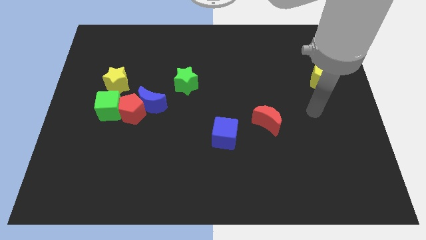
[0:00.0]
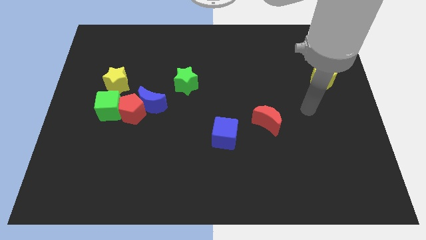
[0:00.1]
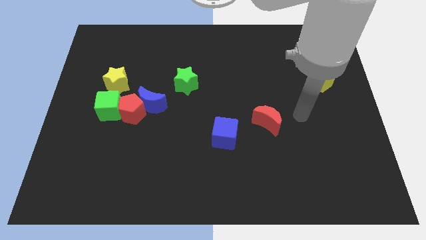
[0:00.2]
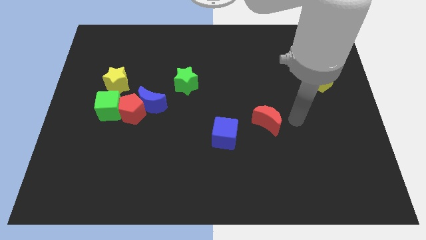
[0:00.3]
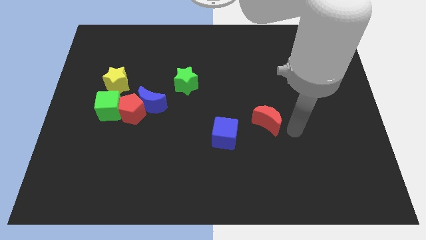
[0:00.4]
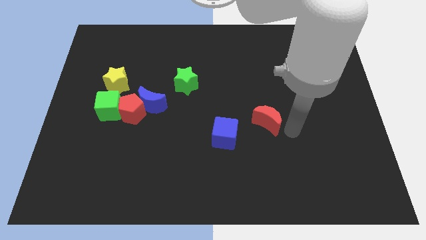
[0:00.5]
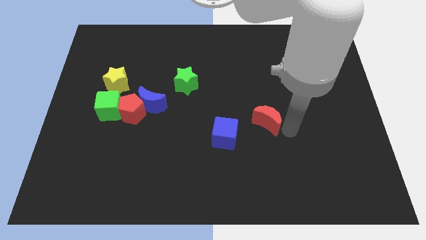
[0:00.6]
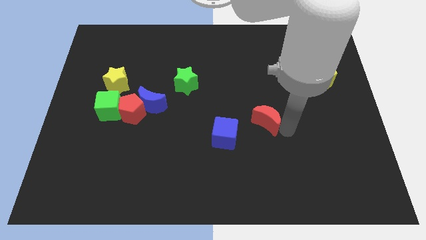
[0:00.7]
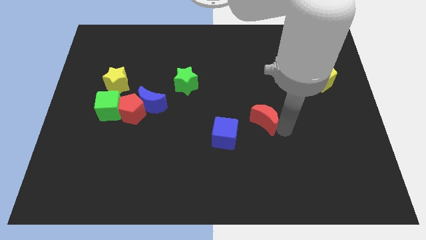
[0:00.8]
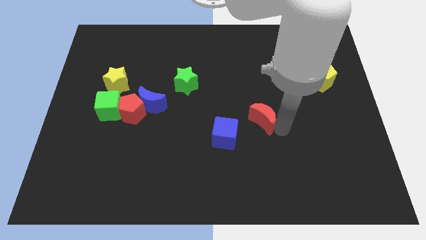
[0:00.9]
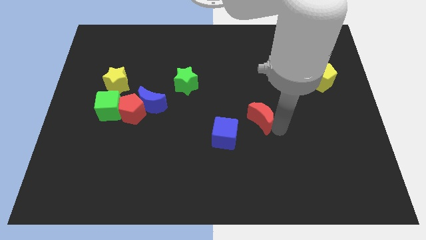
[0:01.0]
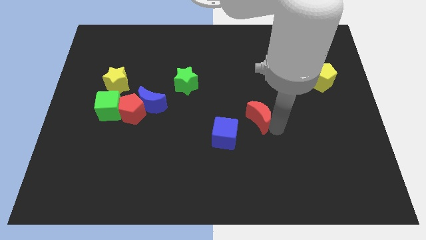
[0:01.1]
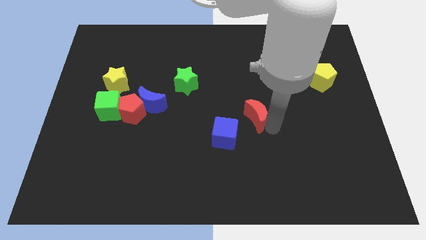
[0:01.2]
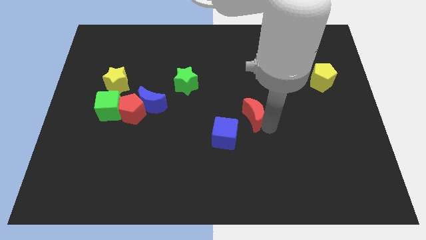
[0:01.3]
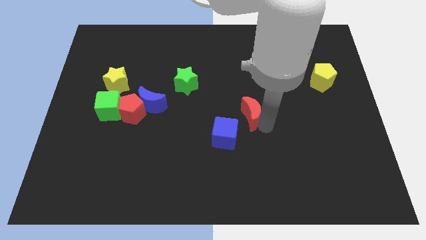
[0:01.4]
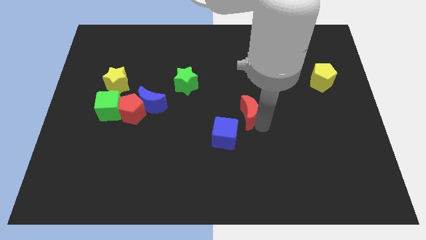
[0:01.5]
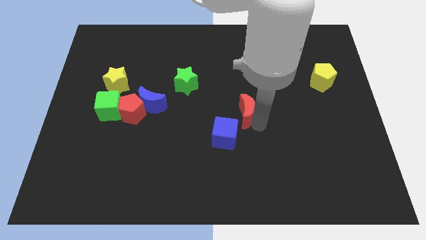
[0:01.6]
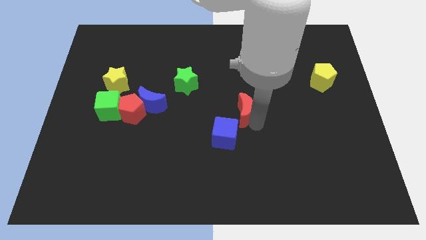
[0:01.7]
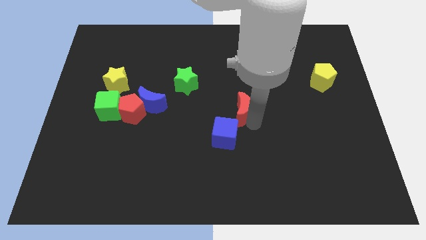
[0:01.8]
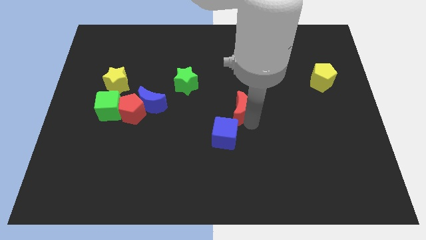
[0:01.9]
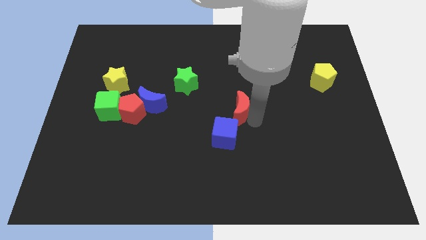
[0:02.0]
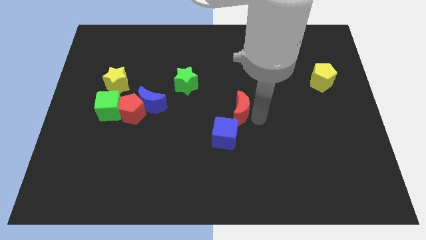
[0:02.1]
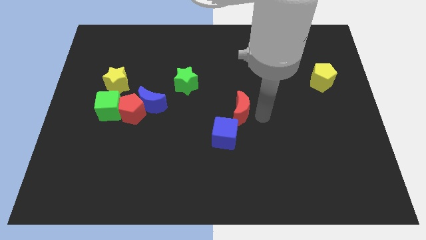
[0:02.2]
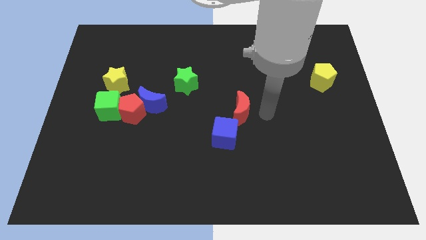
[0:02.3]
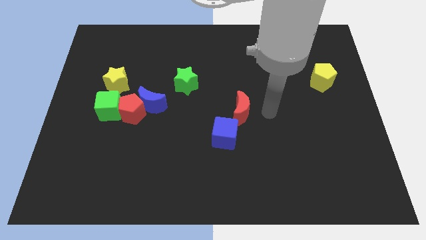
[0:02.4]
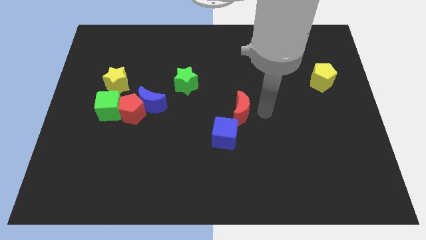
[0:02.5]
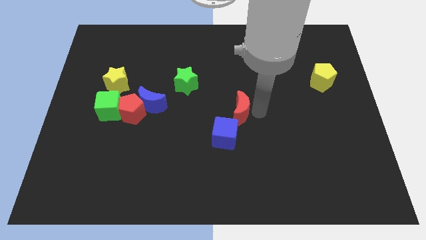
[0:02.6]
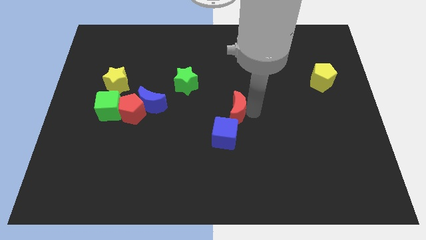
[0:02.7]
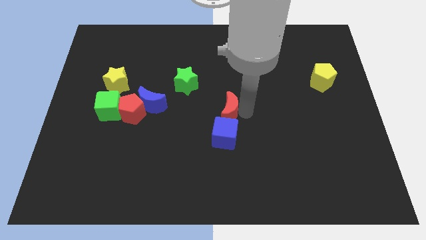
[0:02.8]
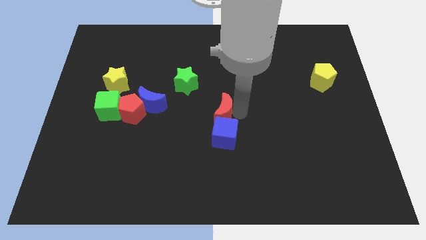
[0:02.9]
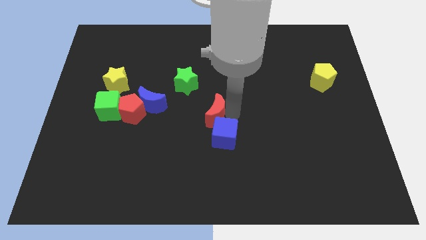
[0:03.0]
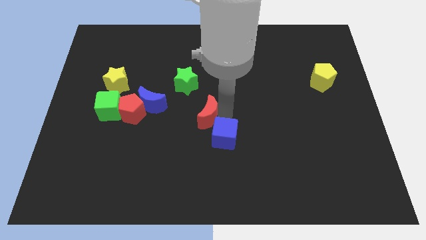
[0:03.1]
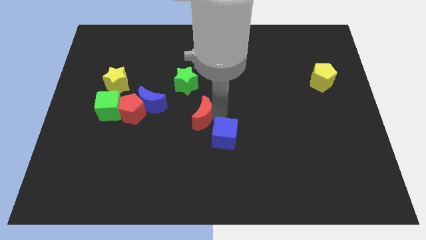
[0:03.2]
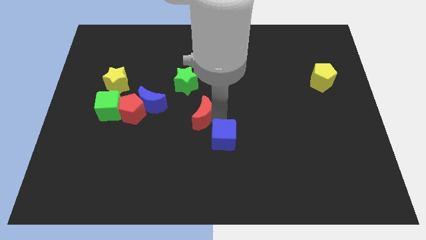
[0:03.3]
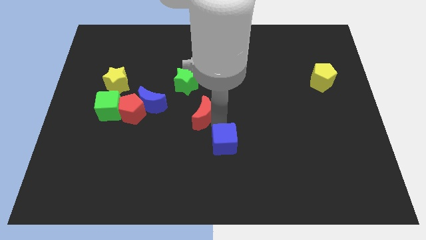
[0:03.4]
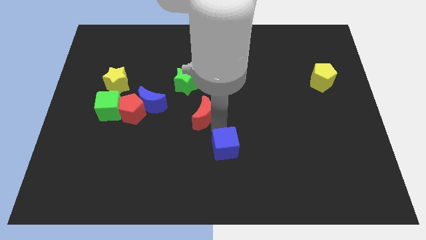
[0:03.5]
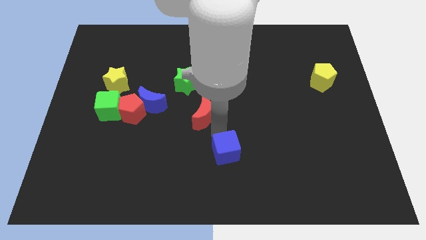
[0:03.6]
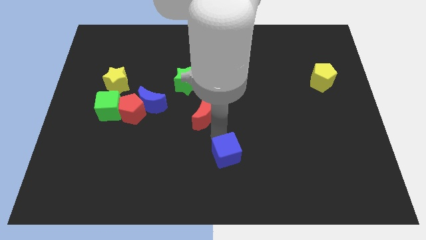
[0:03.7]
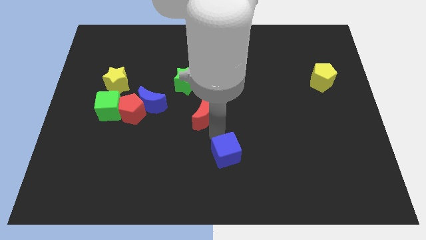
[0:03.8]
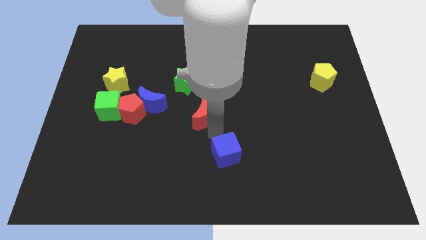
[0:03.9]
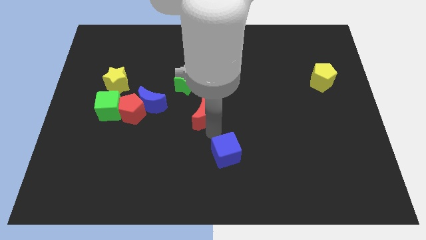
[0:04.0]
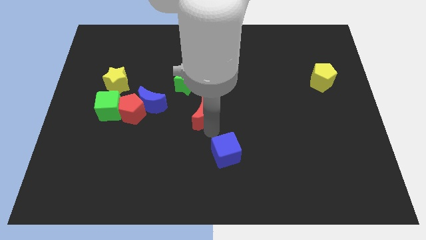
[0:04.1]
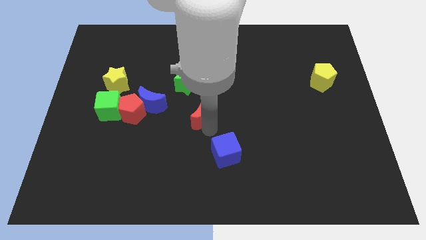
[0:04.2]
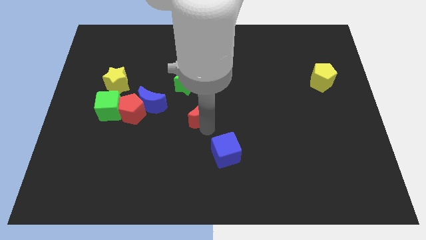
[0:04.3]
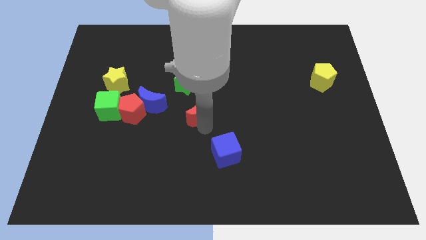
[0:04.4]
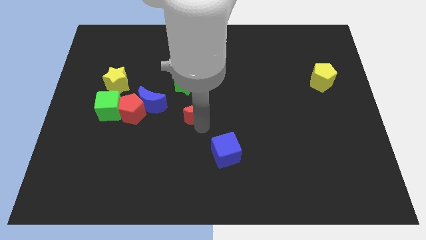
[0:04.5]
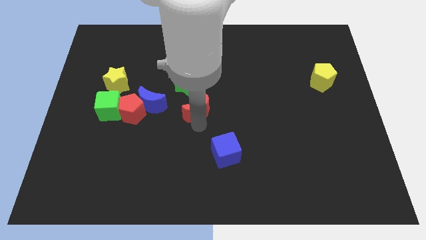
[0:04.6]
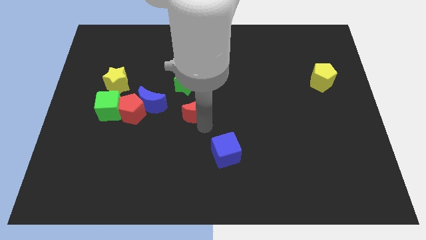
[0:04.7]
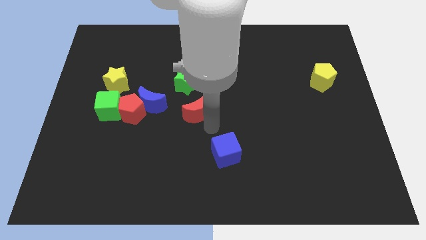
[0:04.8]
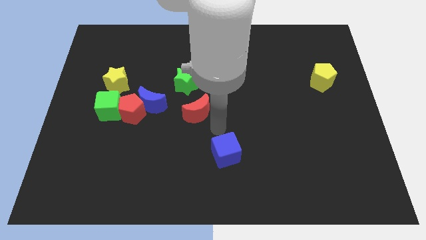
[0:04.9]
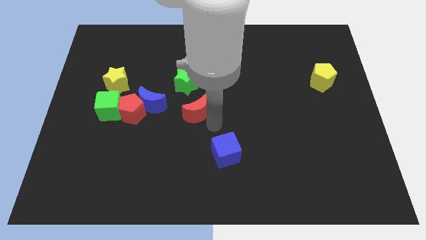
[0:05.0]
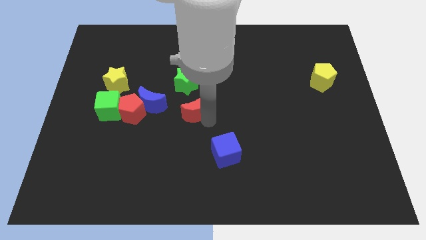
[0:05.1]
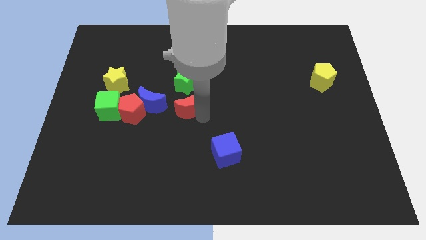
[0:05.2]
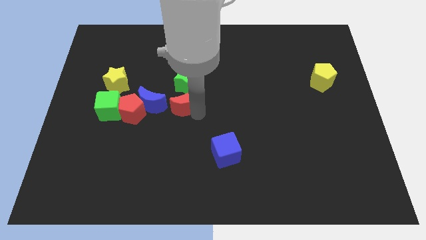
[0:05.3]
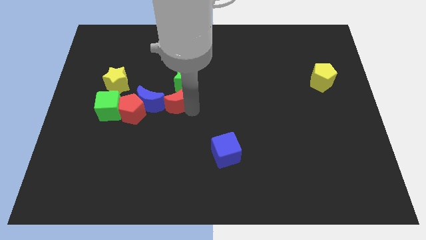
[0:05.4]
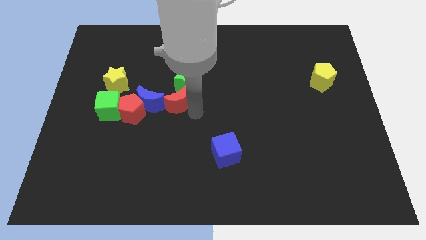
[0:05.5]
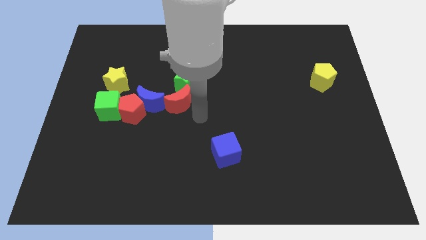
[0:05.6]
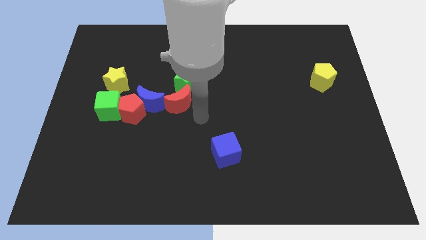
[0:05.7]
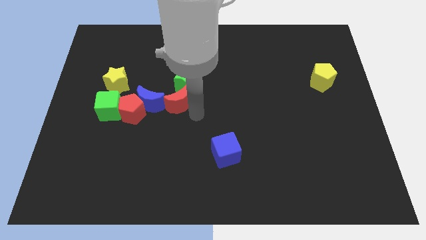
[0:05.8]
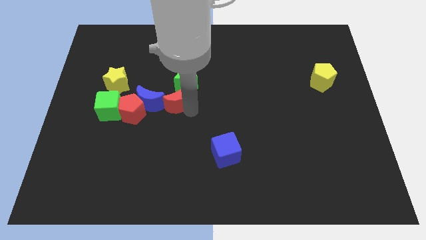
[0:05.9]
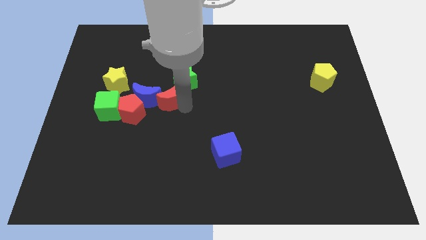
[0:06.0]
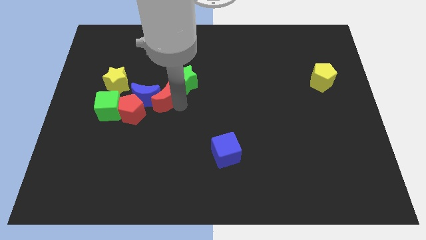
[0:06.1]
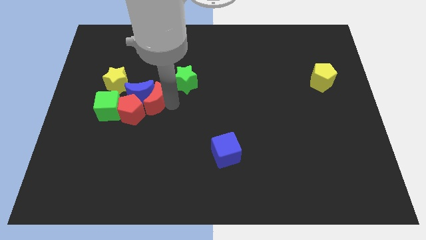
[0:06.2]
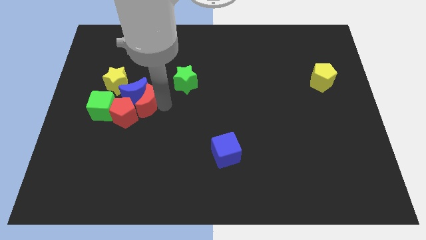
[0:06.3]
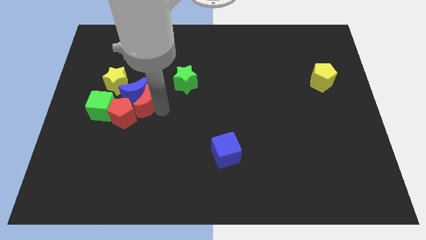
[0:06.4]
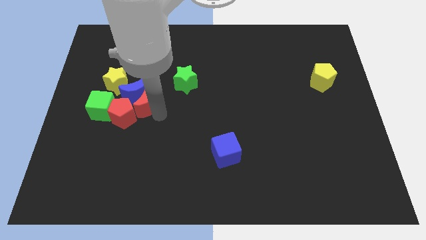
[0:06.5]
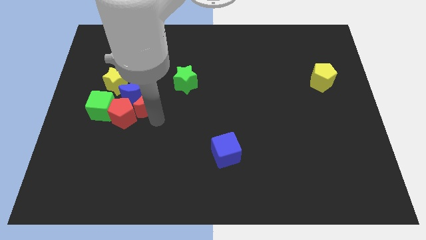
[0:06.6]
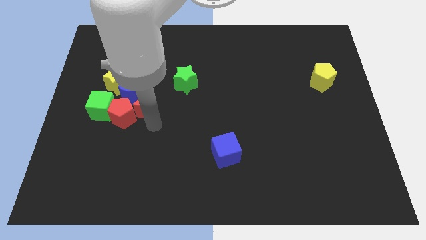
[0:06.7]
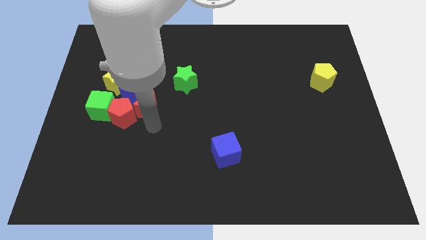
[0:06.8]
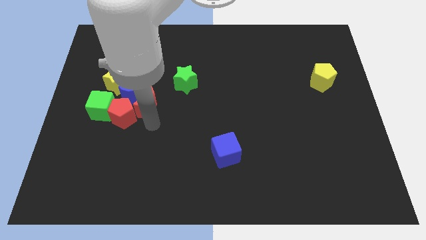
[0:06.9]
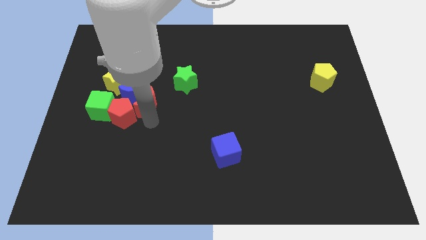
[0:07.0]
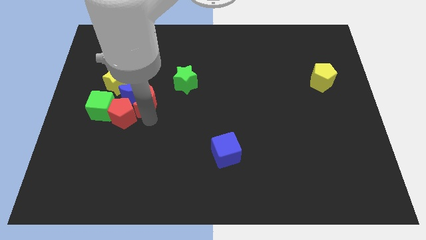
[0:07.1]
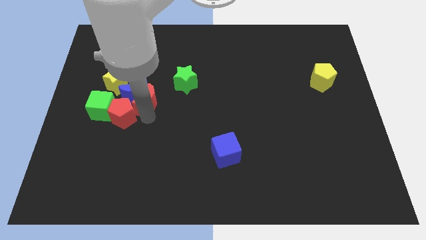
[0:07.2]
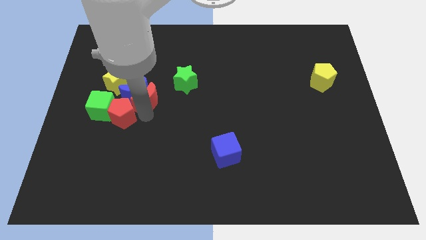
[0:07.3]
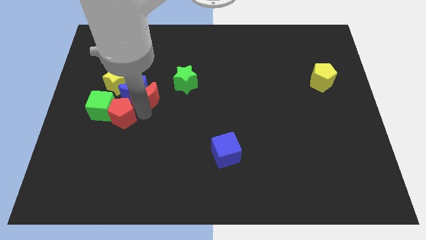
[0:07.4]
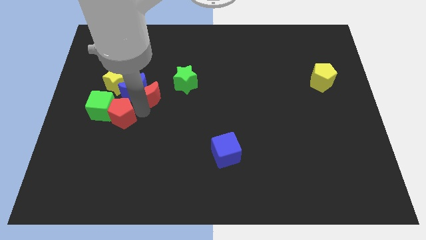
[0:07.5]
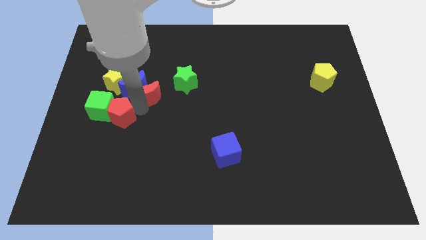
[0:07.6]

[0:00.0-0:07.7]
put the red moon to the left side of the green star
